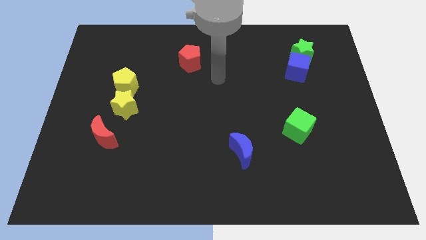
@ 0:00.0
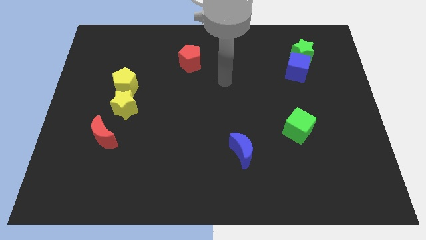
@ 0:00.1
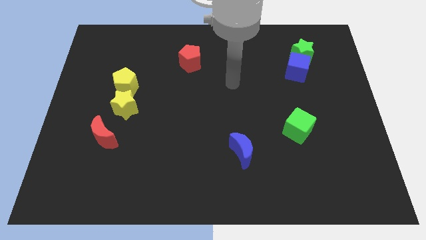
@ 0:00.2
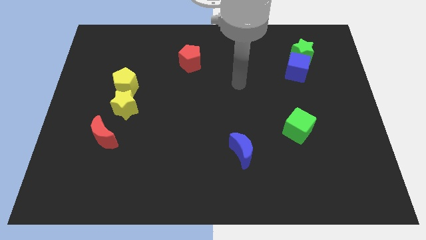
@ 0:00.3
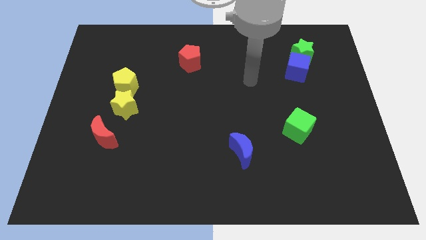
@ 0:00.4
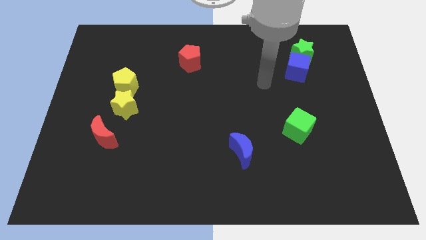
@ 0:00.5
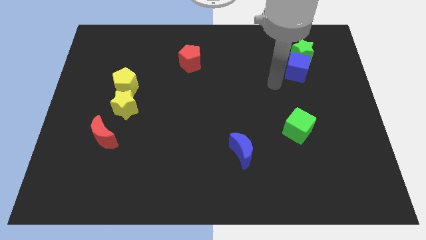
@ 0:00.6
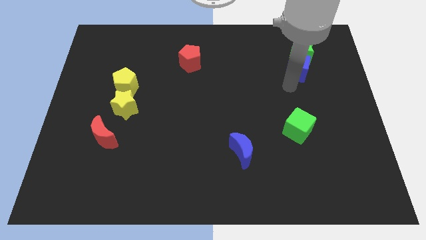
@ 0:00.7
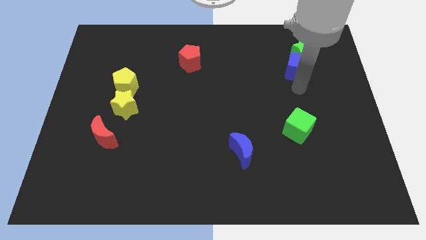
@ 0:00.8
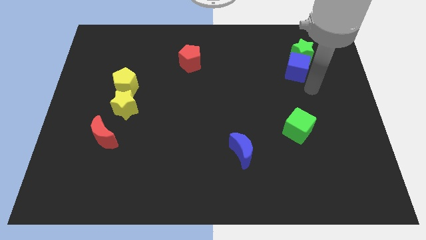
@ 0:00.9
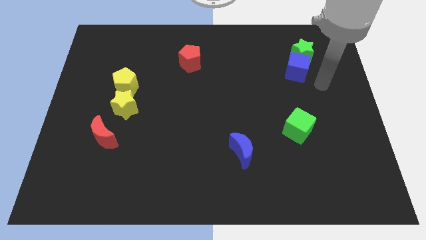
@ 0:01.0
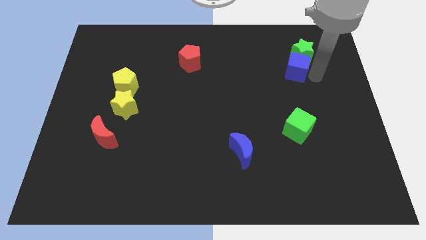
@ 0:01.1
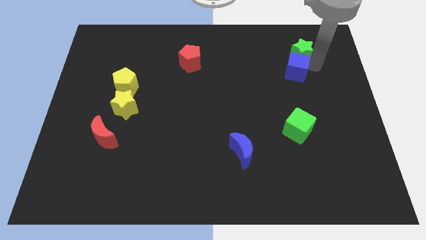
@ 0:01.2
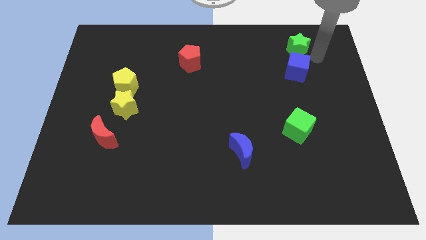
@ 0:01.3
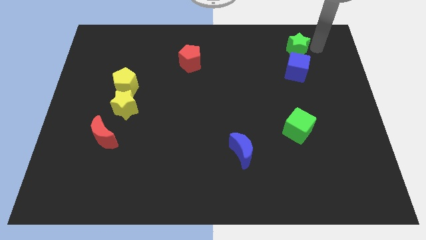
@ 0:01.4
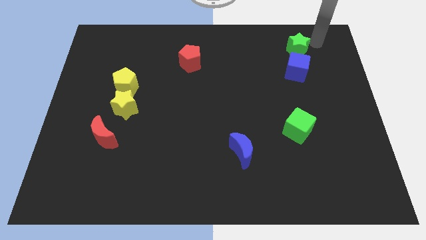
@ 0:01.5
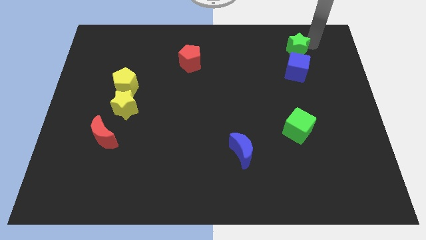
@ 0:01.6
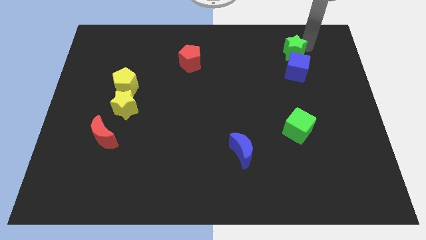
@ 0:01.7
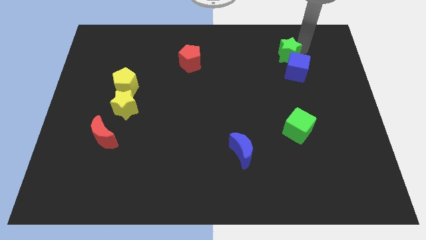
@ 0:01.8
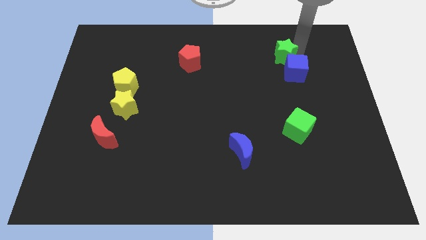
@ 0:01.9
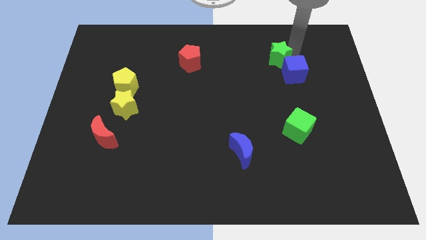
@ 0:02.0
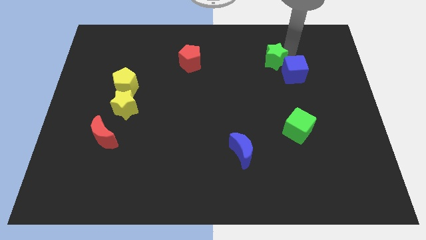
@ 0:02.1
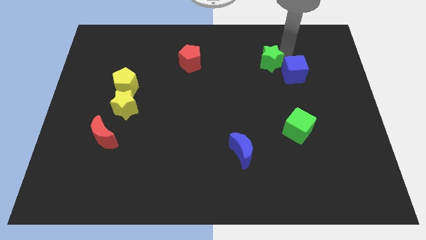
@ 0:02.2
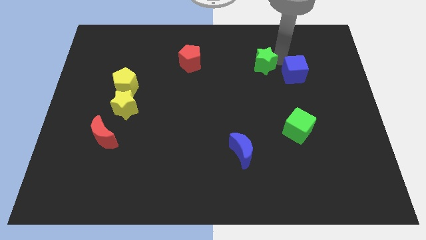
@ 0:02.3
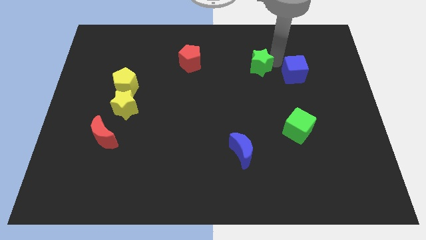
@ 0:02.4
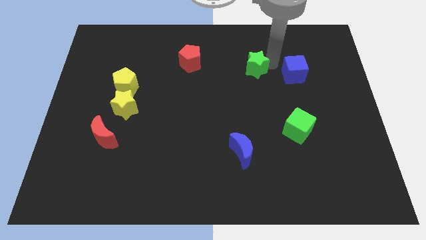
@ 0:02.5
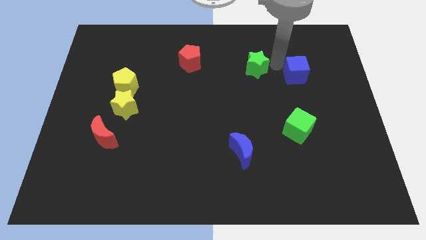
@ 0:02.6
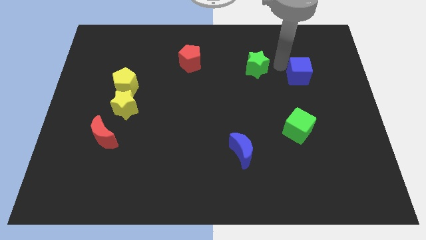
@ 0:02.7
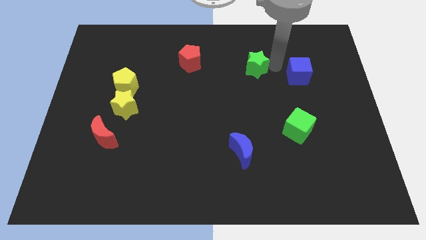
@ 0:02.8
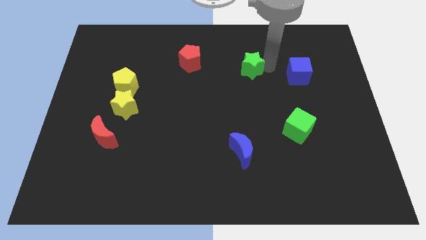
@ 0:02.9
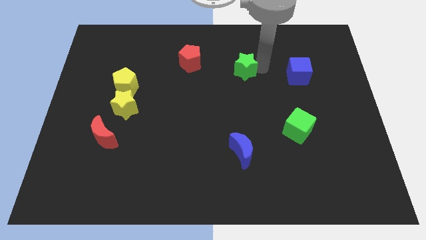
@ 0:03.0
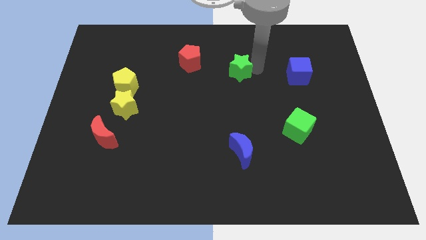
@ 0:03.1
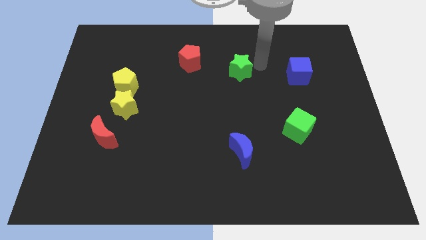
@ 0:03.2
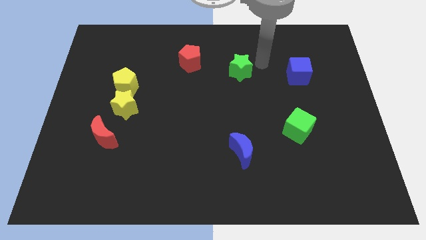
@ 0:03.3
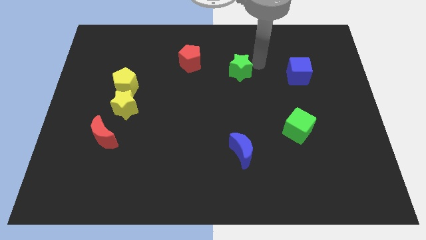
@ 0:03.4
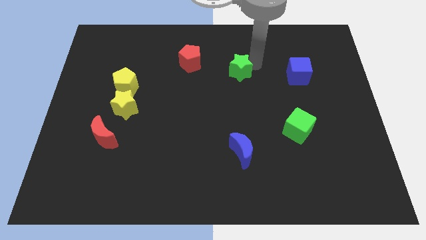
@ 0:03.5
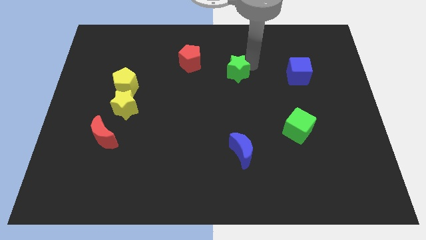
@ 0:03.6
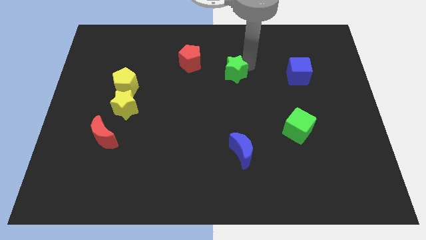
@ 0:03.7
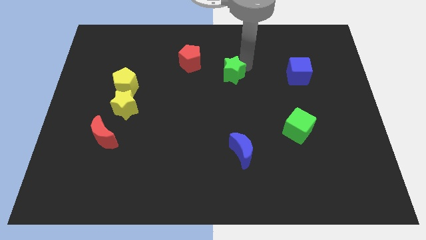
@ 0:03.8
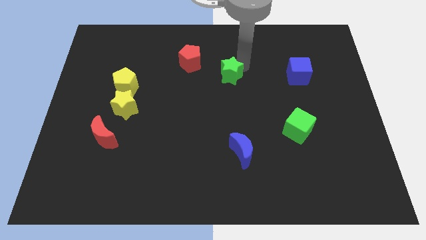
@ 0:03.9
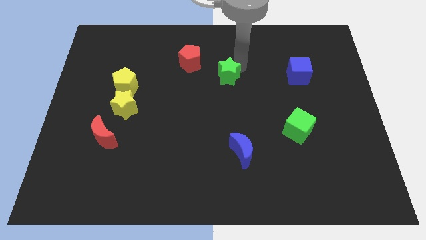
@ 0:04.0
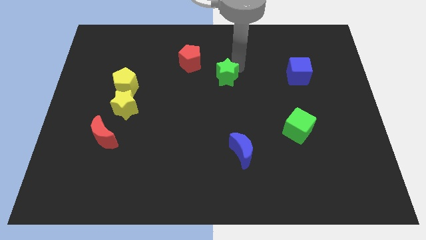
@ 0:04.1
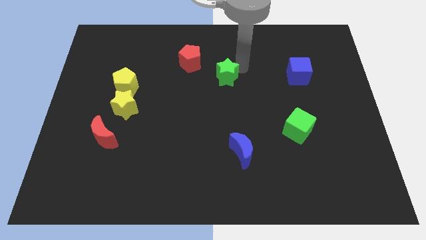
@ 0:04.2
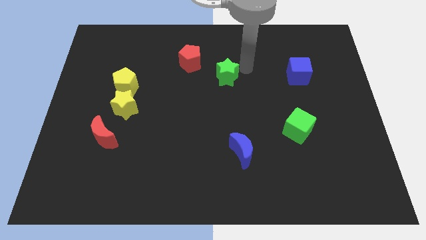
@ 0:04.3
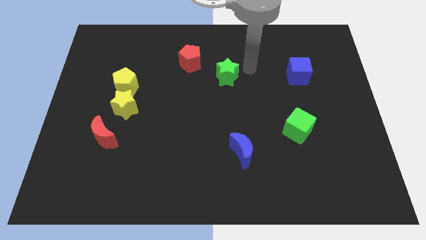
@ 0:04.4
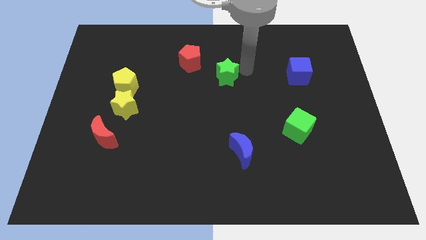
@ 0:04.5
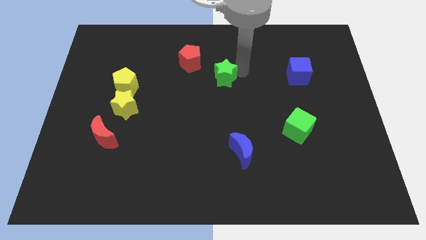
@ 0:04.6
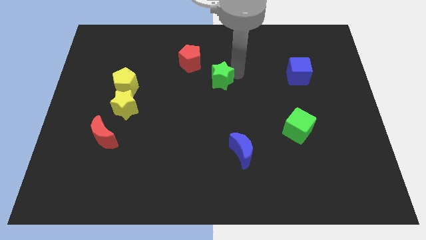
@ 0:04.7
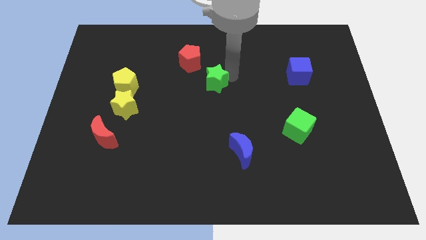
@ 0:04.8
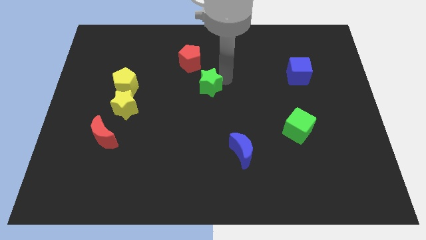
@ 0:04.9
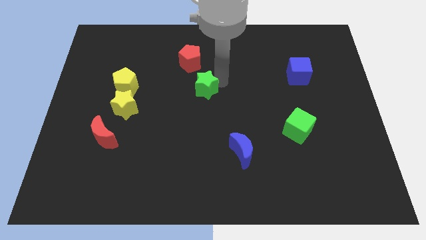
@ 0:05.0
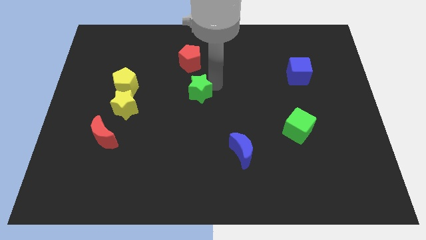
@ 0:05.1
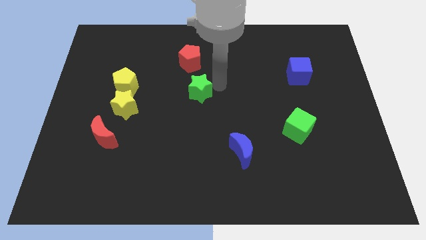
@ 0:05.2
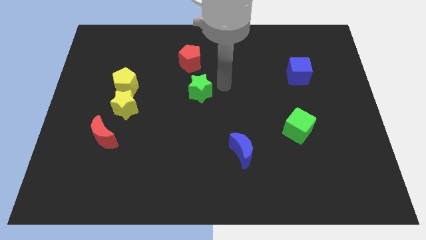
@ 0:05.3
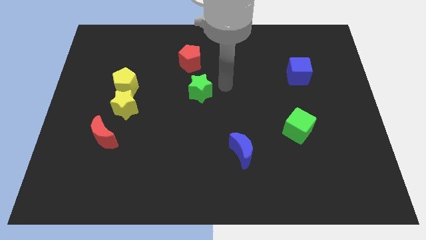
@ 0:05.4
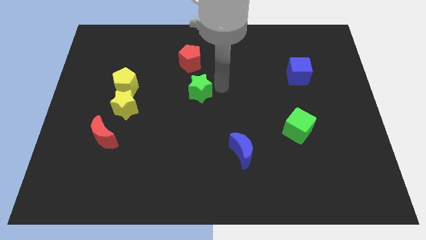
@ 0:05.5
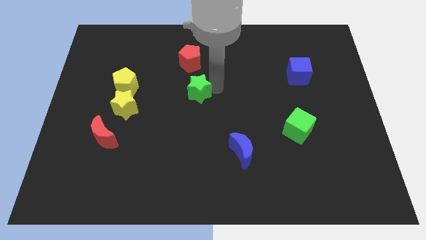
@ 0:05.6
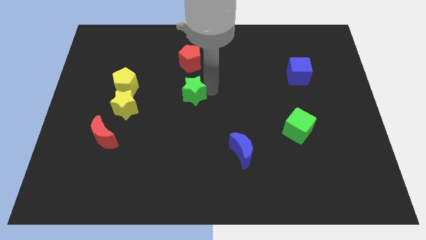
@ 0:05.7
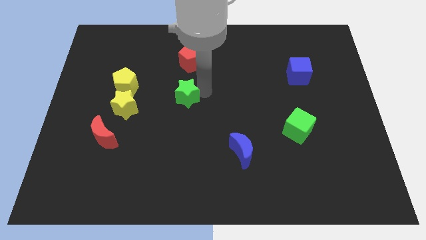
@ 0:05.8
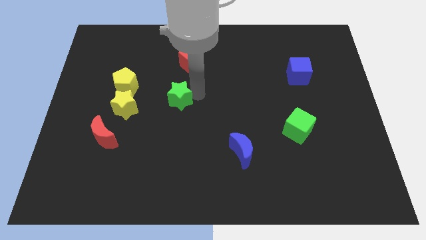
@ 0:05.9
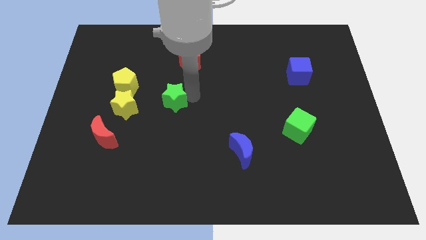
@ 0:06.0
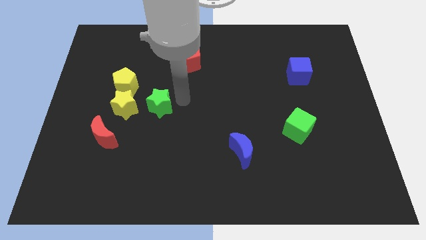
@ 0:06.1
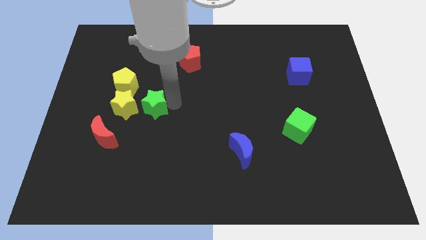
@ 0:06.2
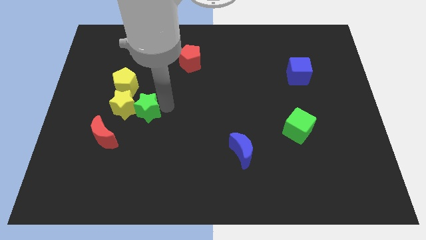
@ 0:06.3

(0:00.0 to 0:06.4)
slide the green star towards the yellow star

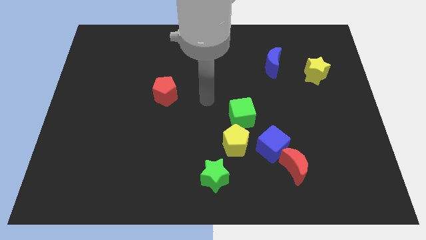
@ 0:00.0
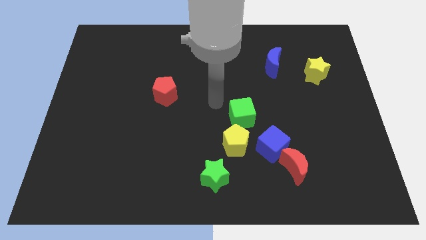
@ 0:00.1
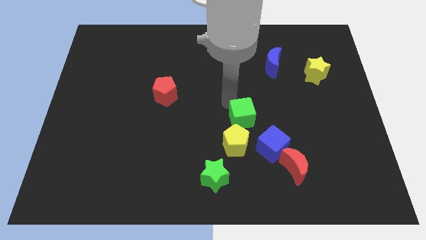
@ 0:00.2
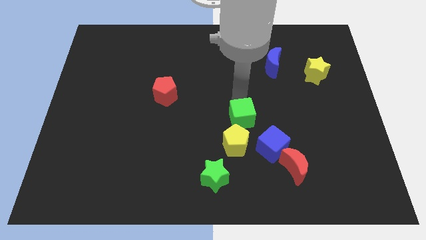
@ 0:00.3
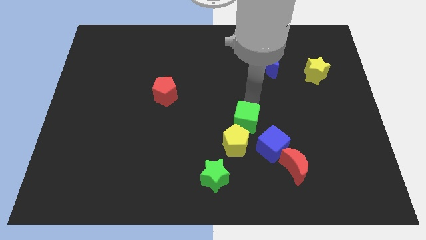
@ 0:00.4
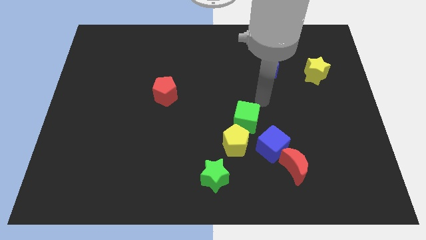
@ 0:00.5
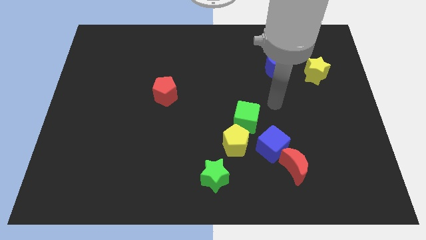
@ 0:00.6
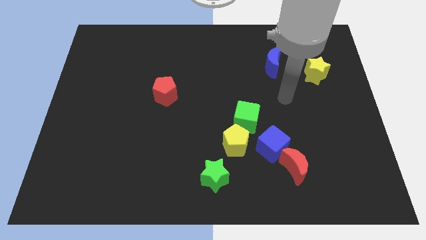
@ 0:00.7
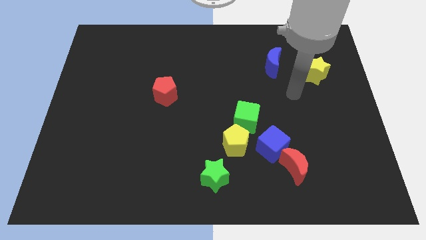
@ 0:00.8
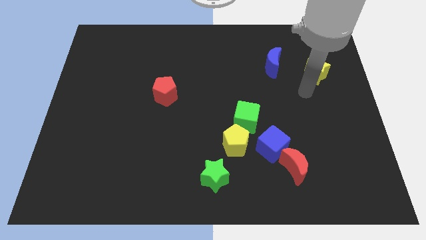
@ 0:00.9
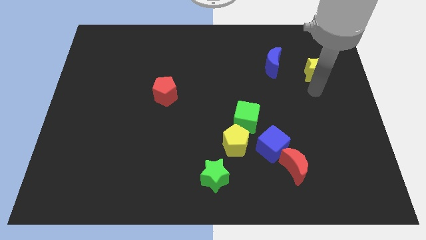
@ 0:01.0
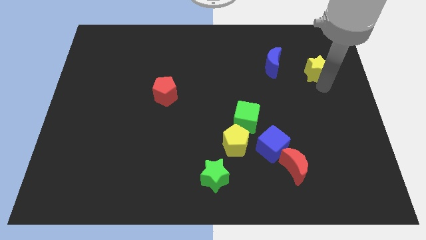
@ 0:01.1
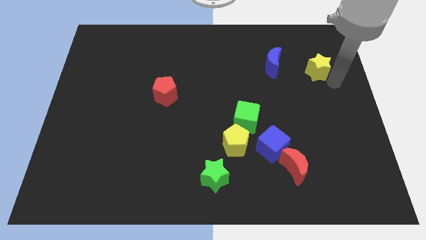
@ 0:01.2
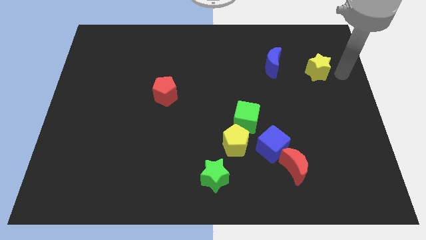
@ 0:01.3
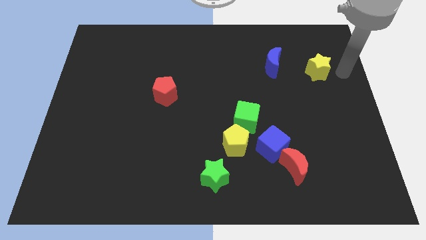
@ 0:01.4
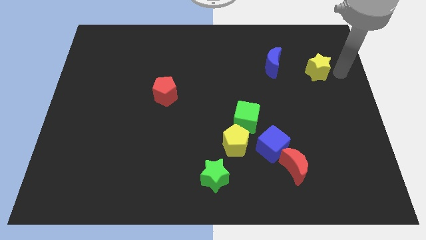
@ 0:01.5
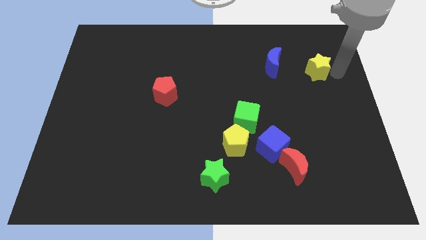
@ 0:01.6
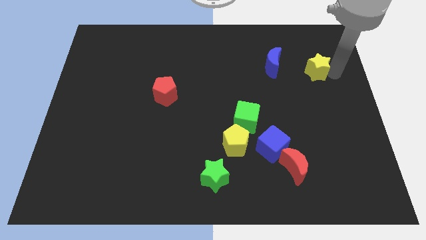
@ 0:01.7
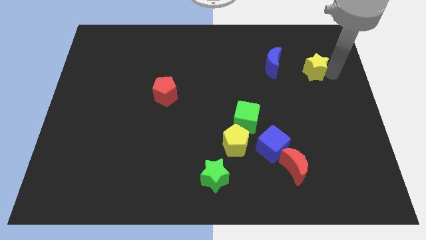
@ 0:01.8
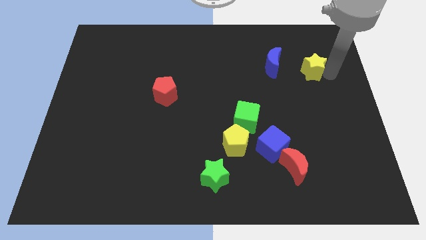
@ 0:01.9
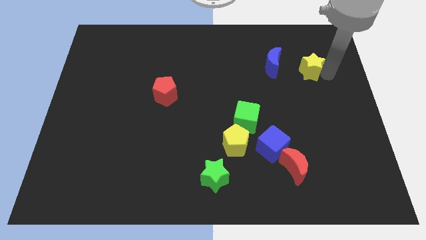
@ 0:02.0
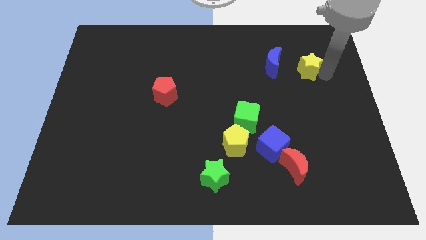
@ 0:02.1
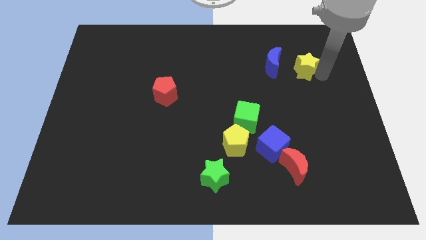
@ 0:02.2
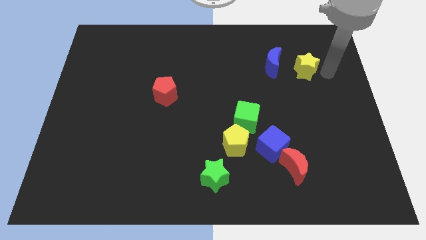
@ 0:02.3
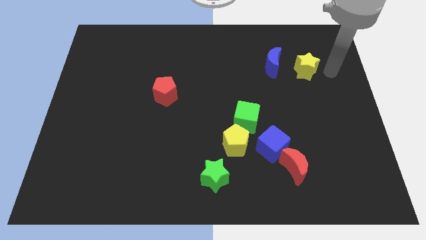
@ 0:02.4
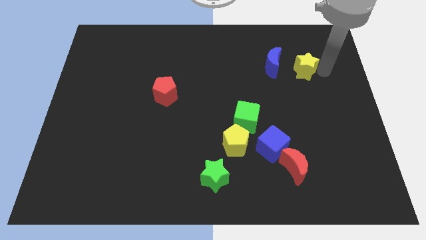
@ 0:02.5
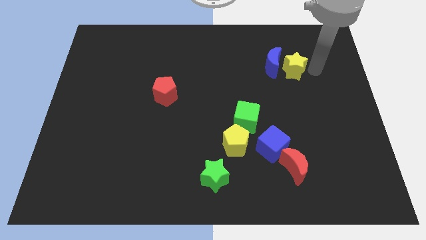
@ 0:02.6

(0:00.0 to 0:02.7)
move the yellow star to the blue moon
